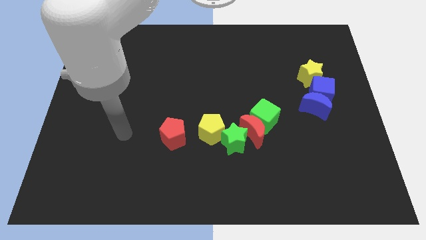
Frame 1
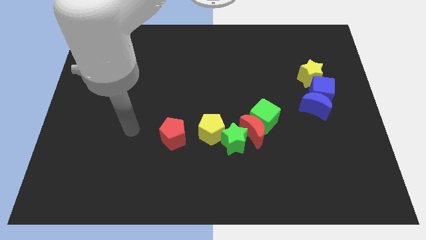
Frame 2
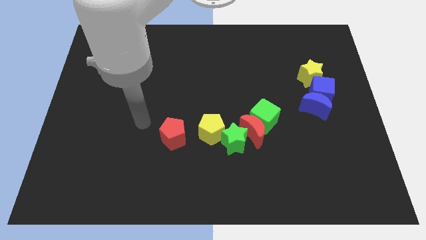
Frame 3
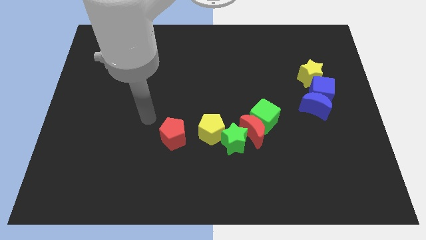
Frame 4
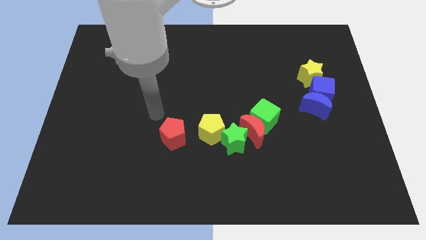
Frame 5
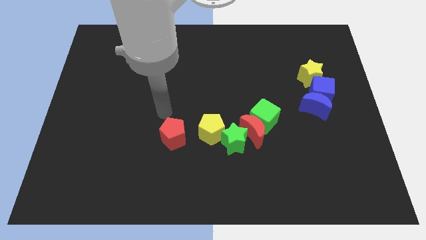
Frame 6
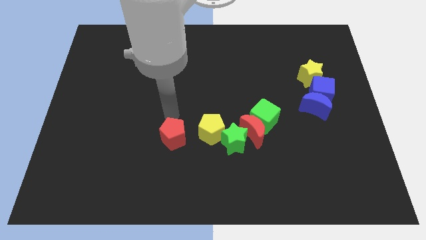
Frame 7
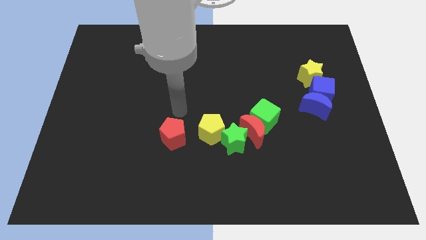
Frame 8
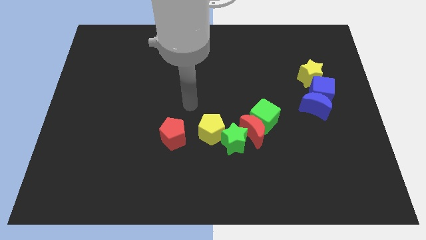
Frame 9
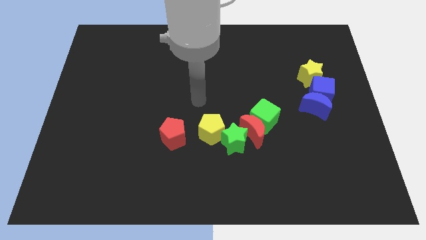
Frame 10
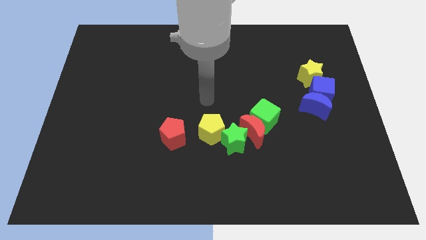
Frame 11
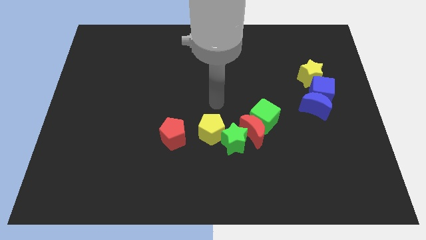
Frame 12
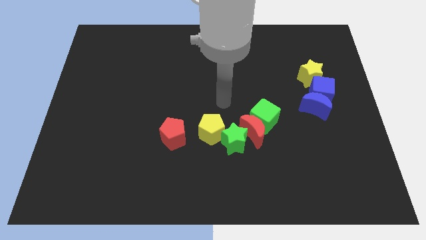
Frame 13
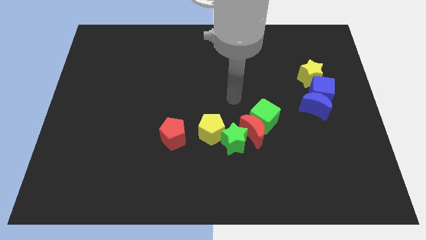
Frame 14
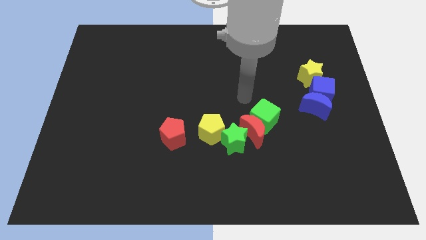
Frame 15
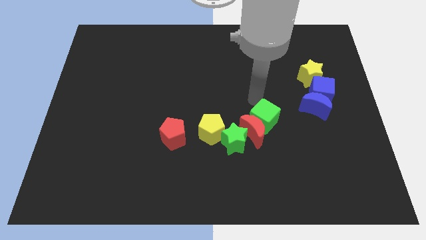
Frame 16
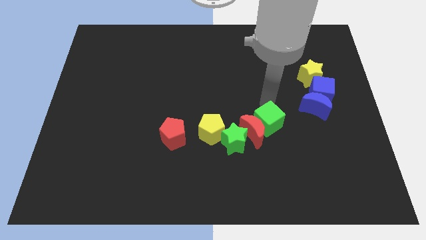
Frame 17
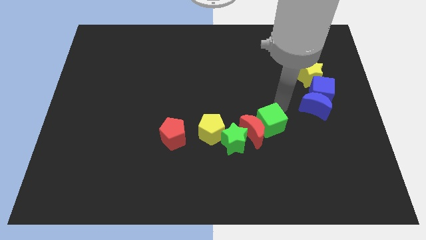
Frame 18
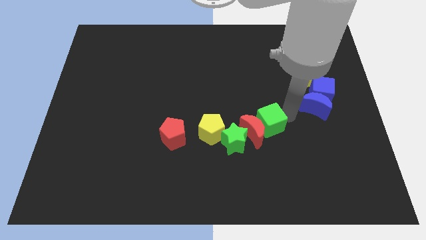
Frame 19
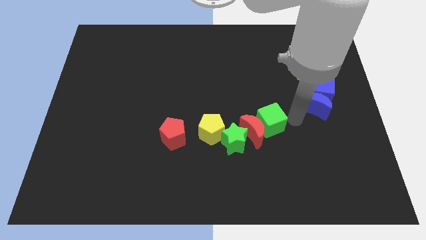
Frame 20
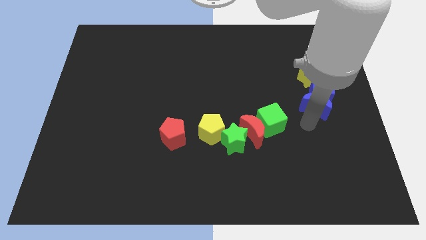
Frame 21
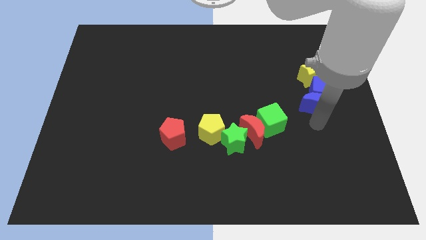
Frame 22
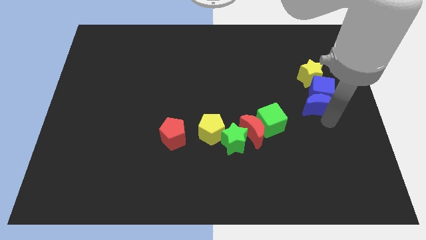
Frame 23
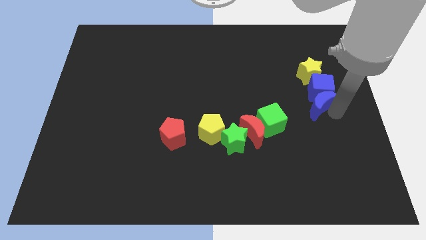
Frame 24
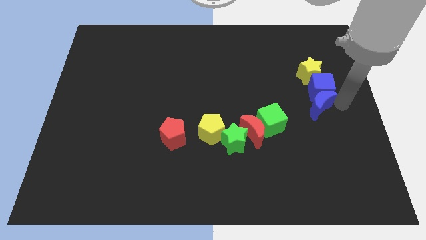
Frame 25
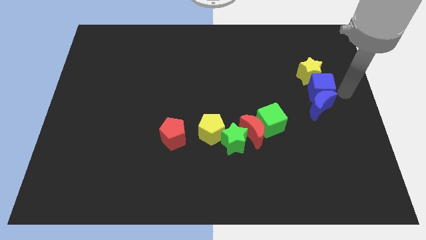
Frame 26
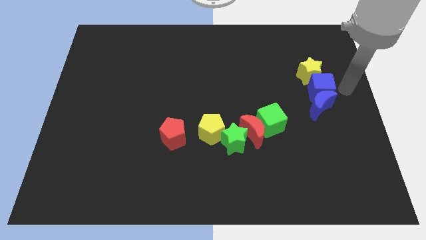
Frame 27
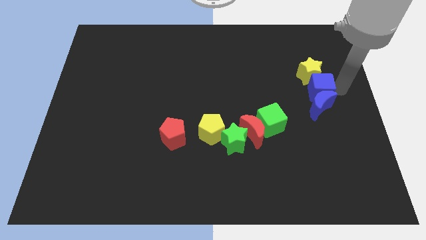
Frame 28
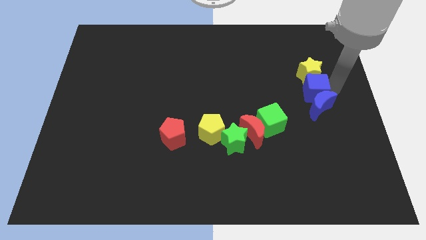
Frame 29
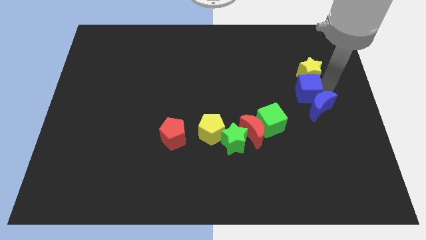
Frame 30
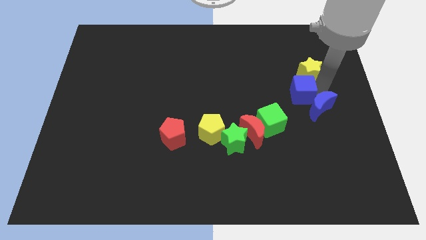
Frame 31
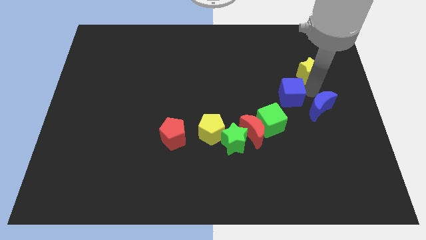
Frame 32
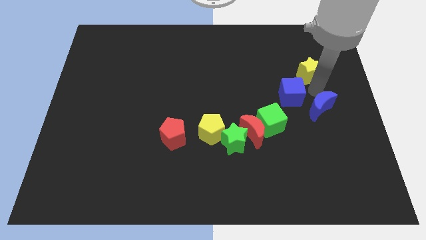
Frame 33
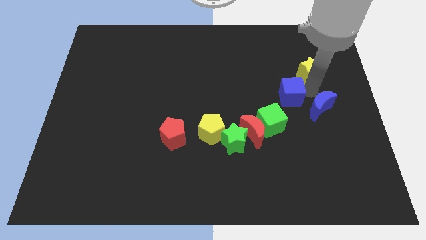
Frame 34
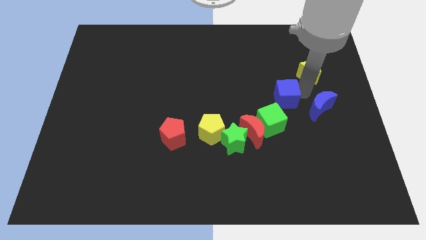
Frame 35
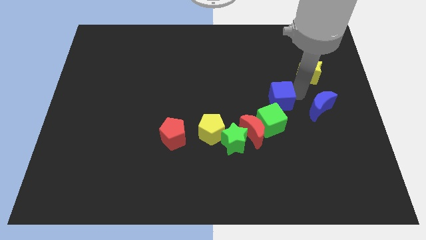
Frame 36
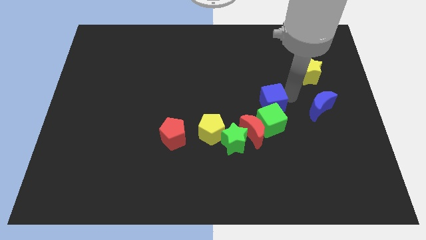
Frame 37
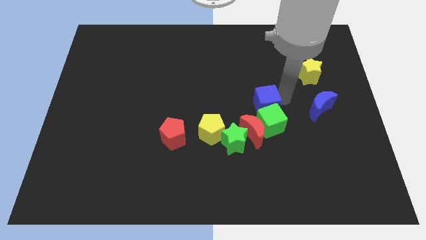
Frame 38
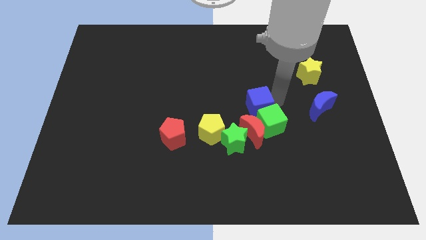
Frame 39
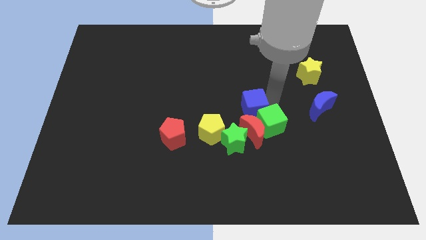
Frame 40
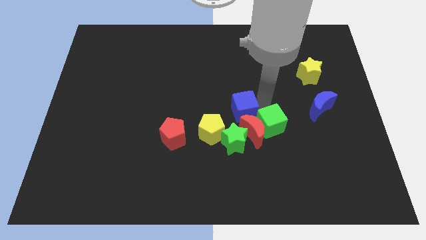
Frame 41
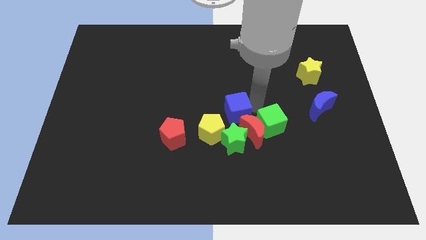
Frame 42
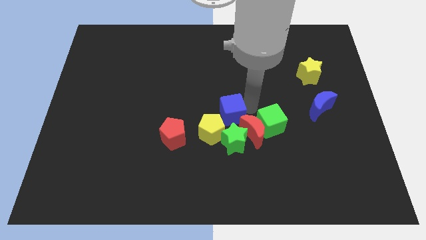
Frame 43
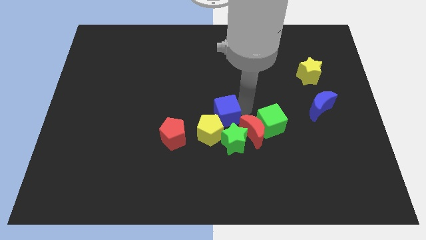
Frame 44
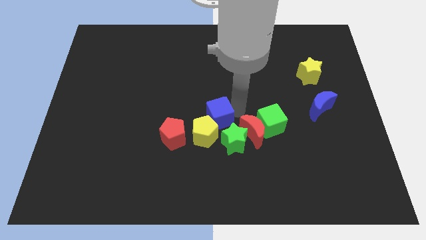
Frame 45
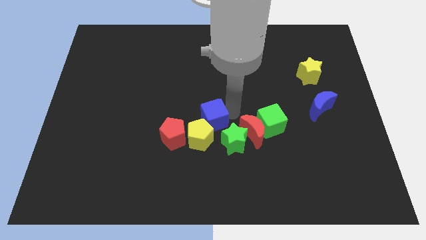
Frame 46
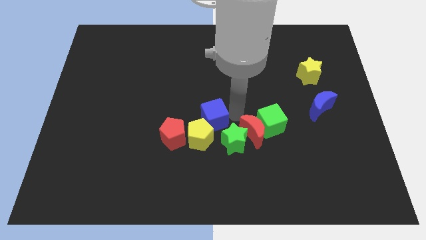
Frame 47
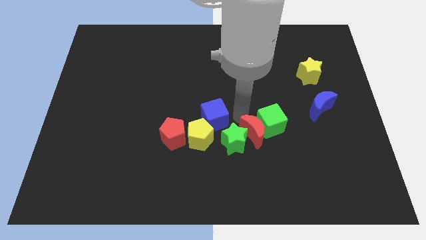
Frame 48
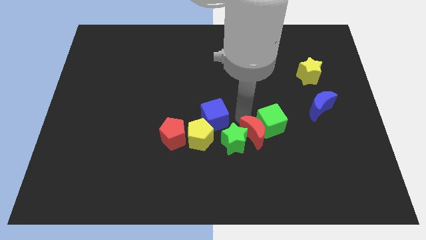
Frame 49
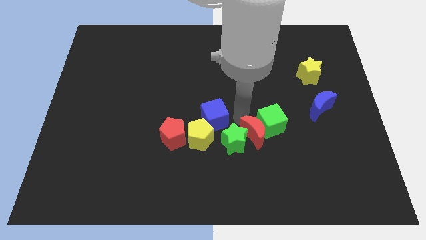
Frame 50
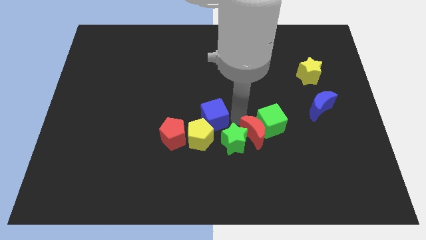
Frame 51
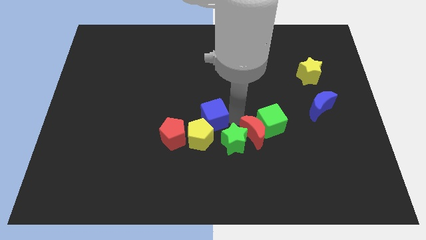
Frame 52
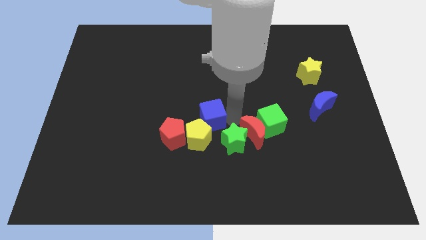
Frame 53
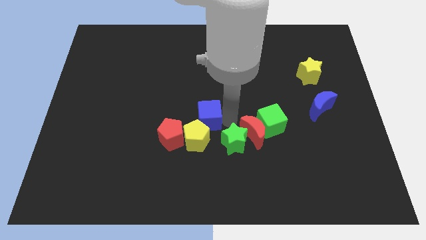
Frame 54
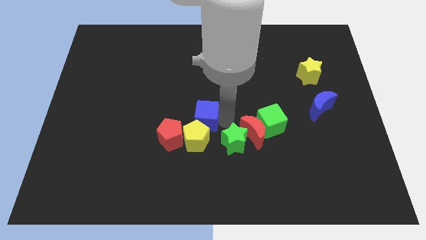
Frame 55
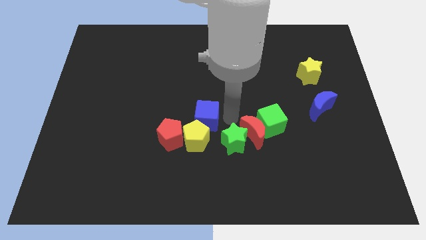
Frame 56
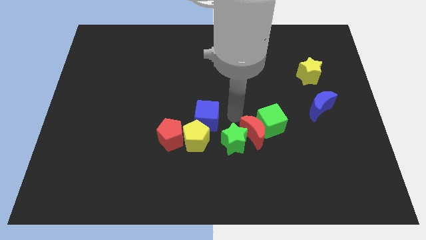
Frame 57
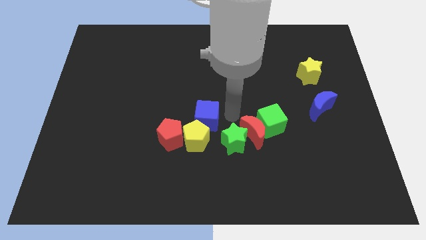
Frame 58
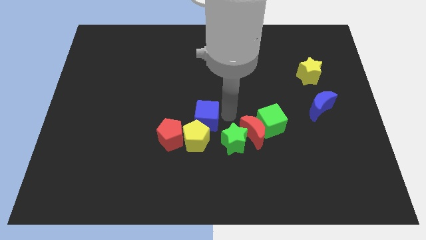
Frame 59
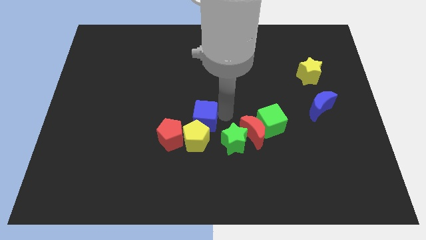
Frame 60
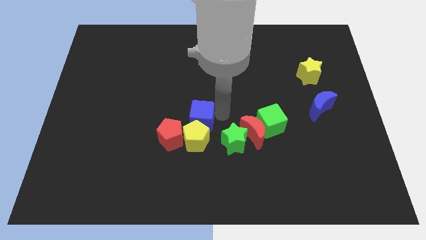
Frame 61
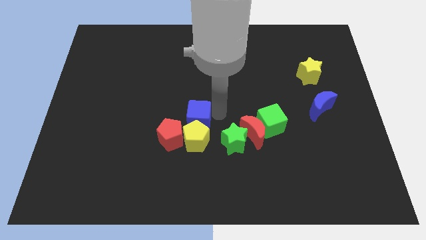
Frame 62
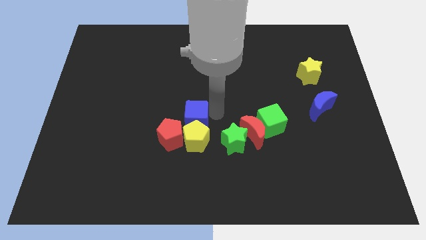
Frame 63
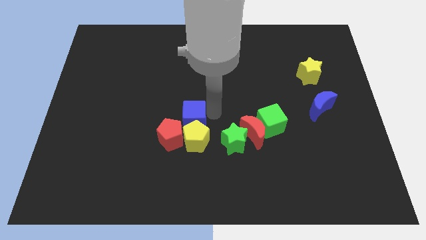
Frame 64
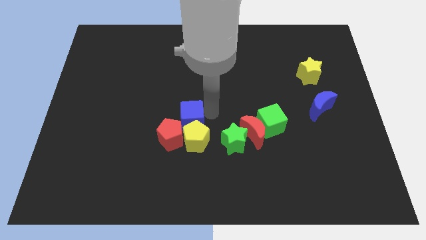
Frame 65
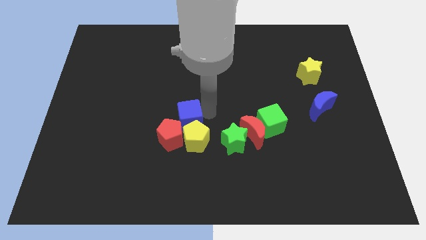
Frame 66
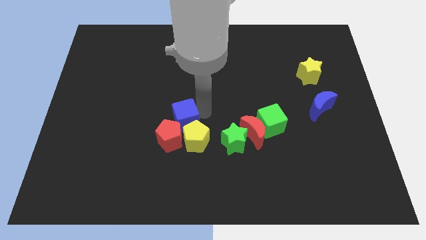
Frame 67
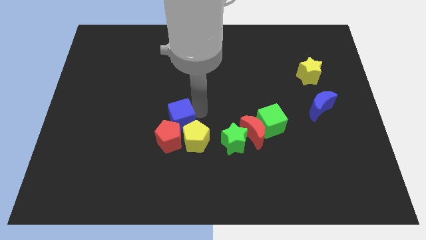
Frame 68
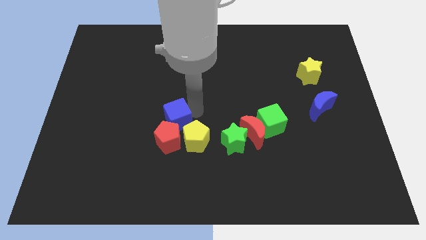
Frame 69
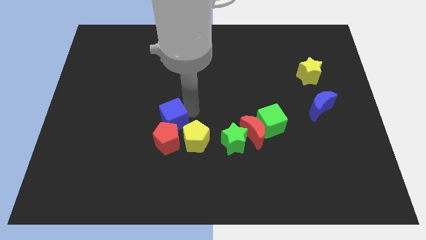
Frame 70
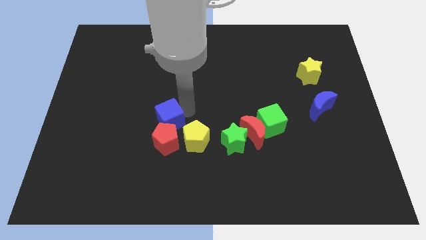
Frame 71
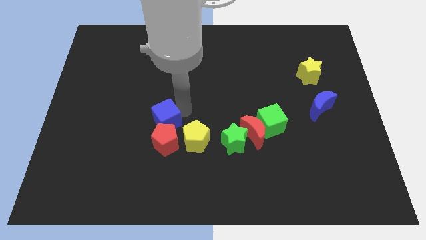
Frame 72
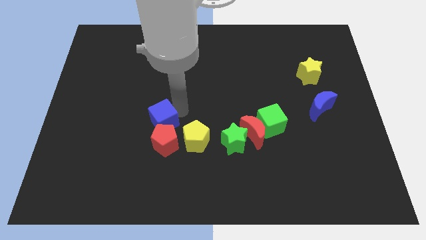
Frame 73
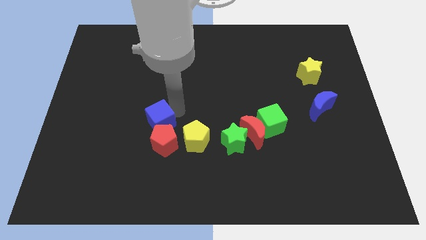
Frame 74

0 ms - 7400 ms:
push the blue cube to the left side of the yellow pentagon
